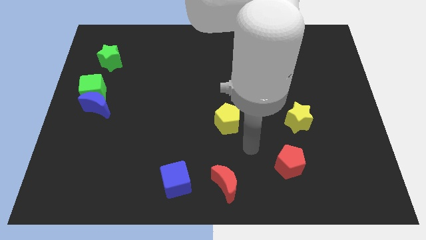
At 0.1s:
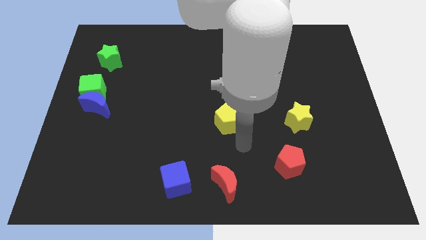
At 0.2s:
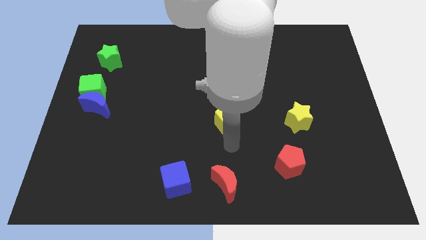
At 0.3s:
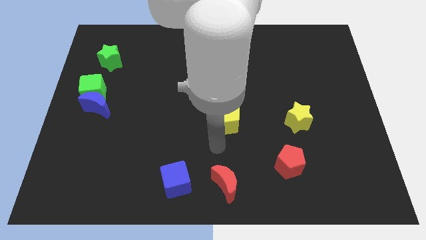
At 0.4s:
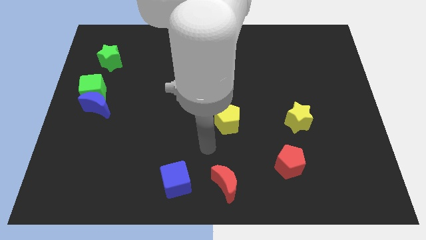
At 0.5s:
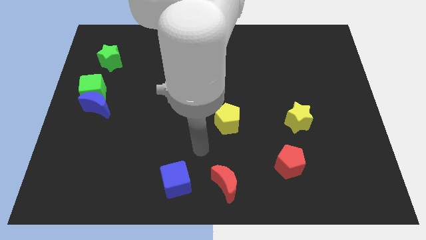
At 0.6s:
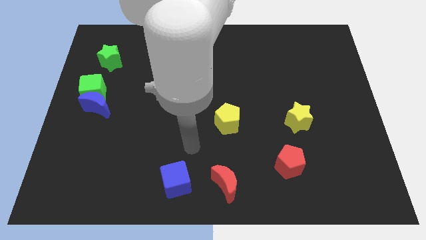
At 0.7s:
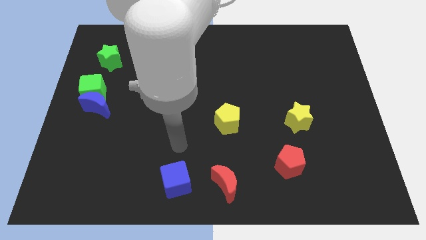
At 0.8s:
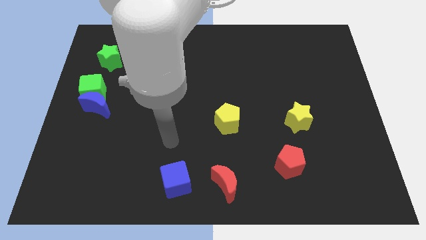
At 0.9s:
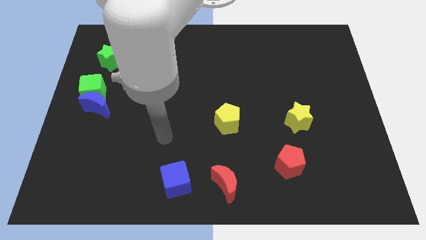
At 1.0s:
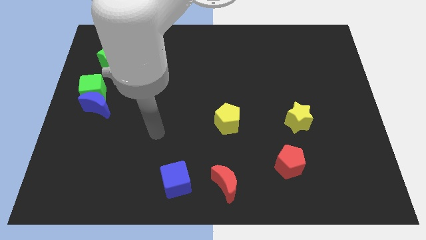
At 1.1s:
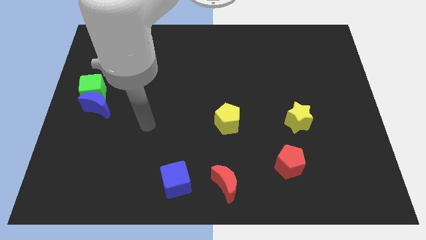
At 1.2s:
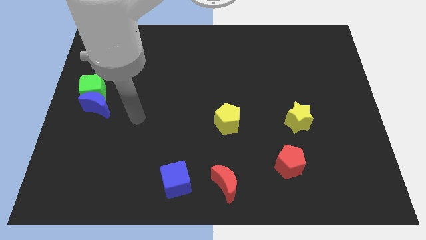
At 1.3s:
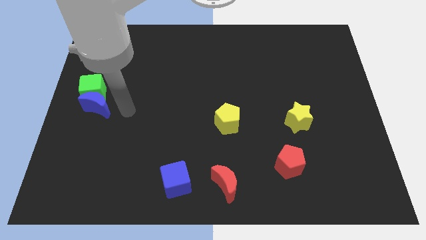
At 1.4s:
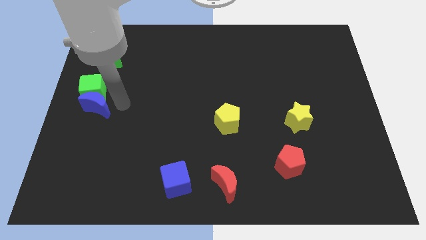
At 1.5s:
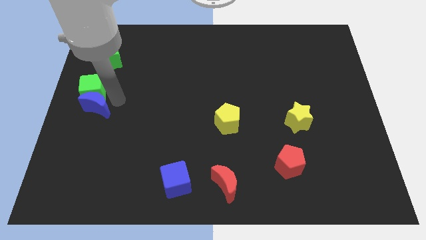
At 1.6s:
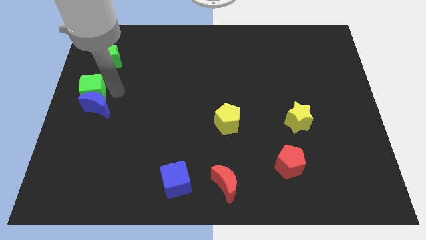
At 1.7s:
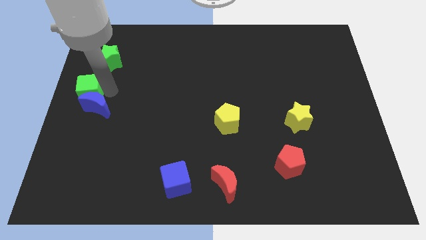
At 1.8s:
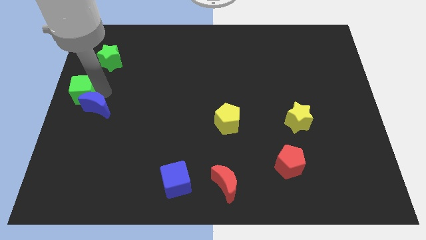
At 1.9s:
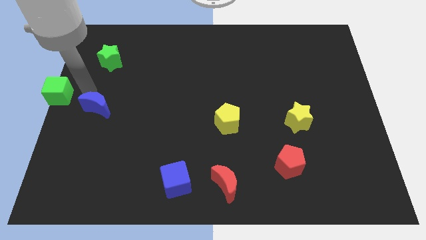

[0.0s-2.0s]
separate the blue moon from the green cube

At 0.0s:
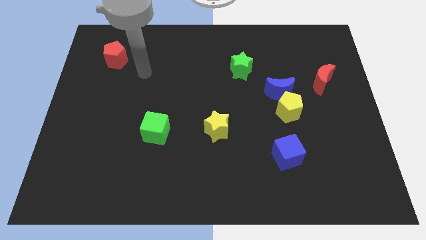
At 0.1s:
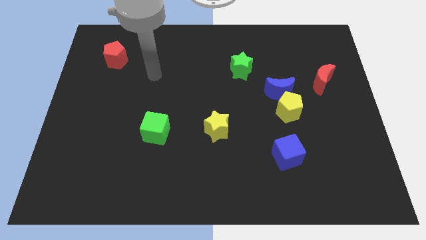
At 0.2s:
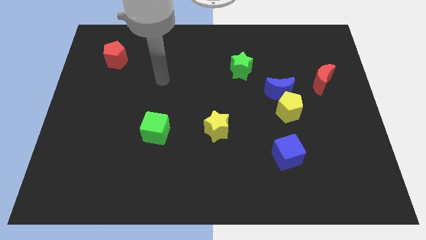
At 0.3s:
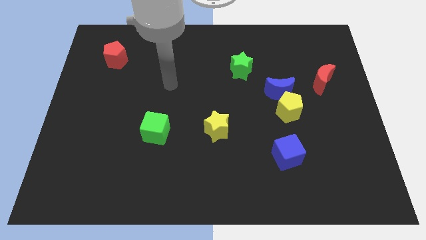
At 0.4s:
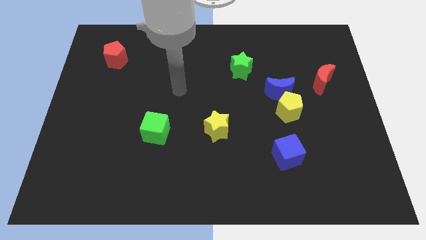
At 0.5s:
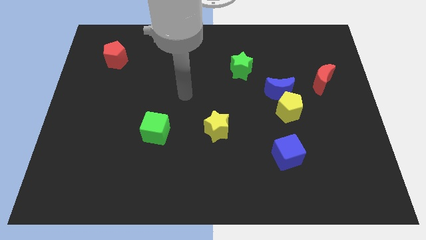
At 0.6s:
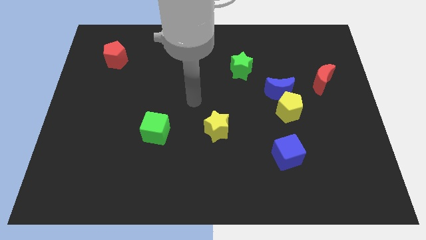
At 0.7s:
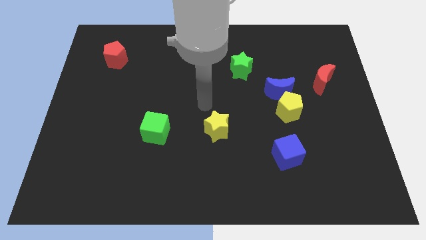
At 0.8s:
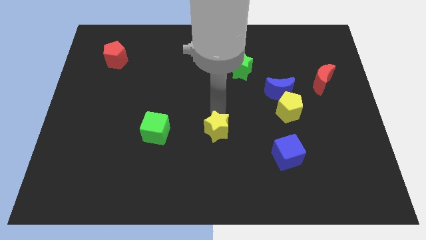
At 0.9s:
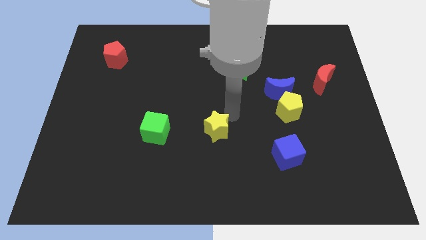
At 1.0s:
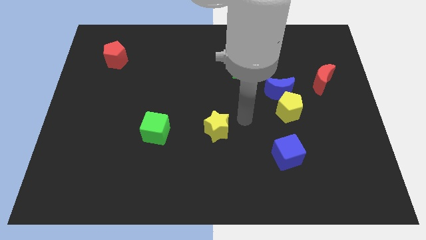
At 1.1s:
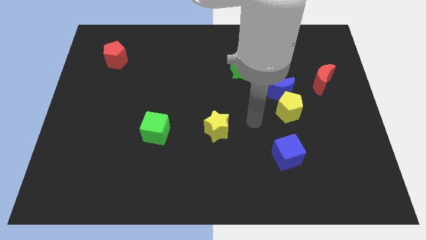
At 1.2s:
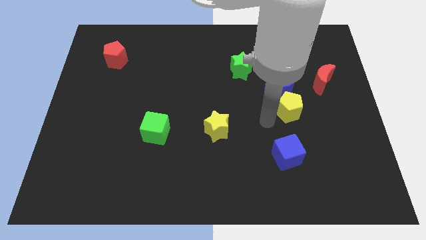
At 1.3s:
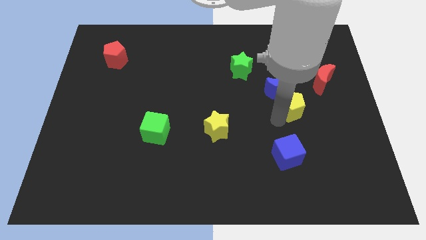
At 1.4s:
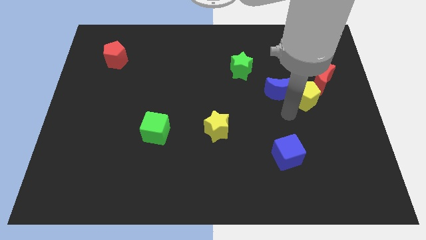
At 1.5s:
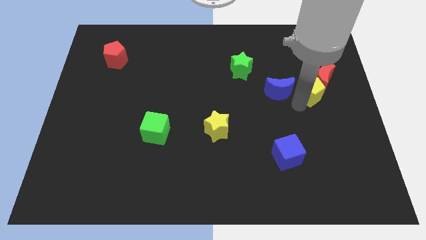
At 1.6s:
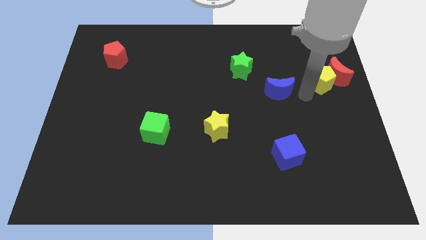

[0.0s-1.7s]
separate the blue moon from the yellow pentagon

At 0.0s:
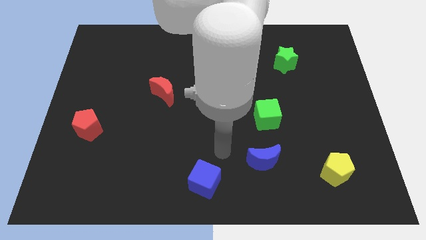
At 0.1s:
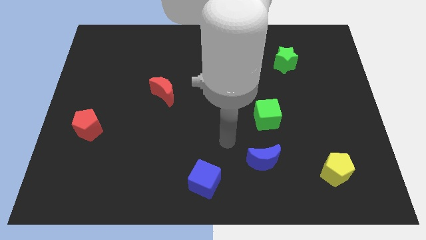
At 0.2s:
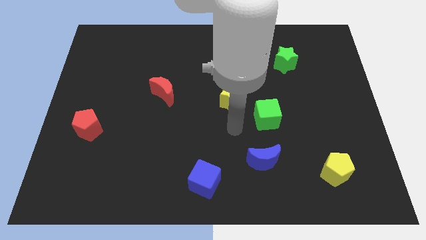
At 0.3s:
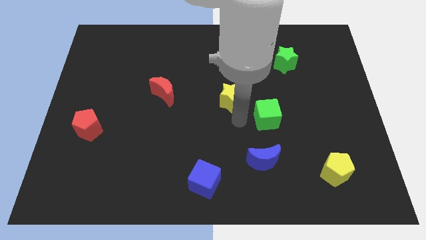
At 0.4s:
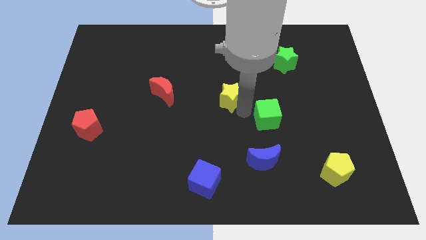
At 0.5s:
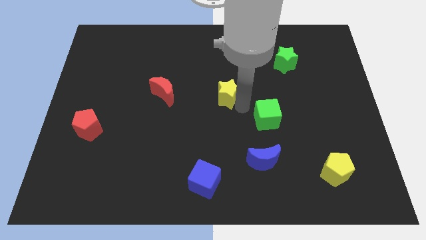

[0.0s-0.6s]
pull the green cube apart from the yellow star

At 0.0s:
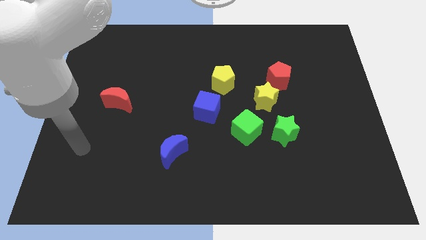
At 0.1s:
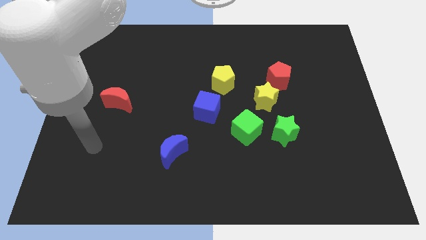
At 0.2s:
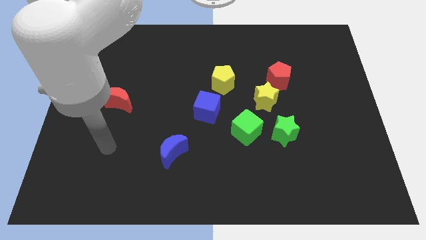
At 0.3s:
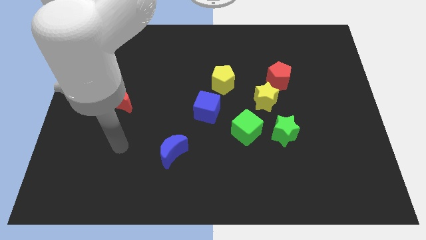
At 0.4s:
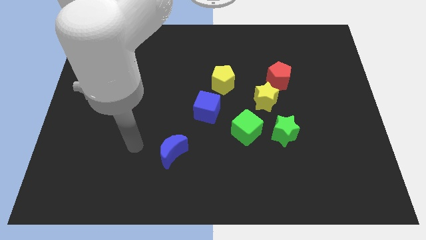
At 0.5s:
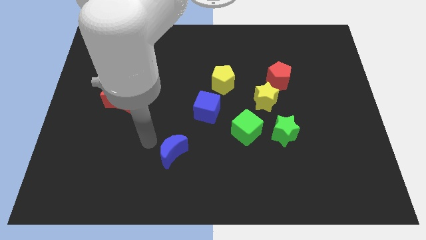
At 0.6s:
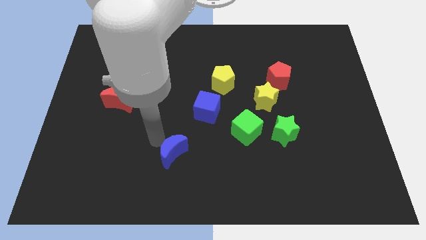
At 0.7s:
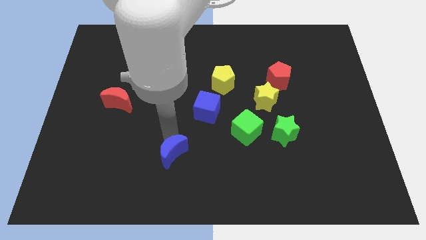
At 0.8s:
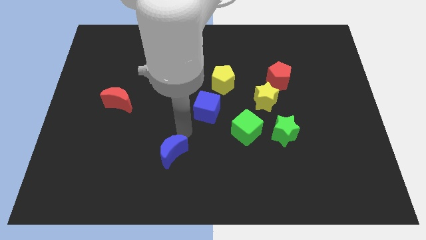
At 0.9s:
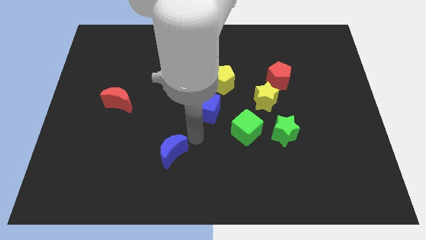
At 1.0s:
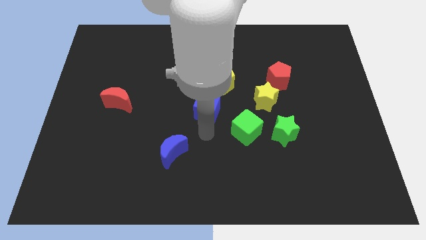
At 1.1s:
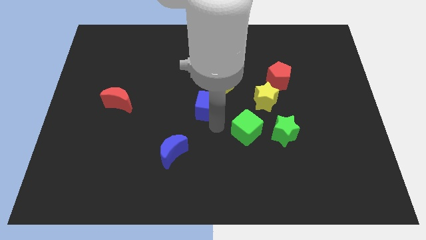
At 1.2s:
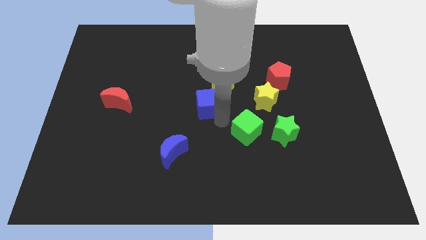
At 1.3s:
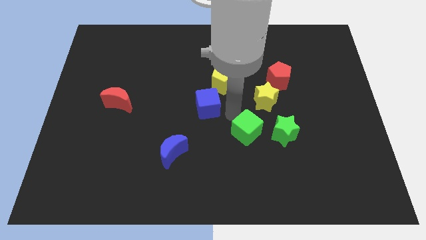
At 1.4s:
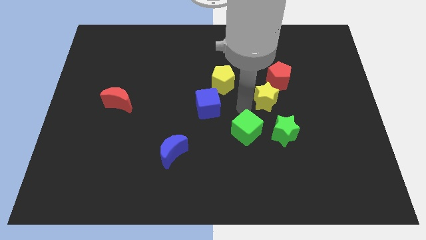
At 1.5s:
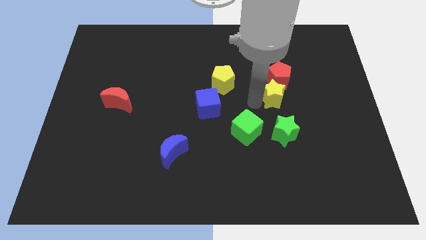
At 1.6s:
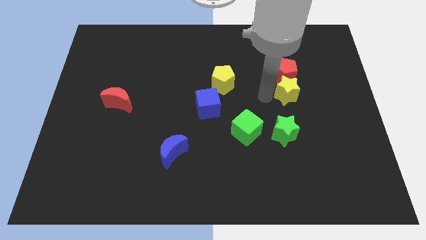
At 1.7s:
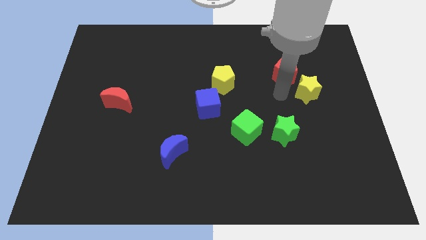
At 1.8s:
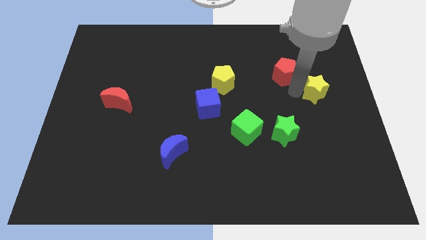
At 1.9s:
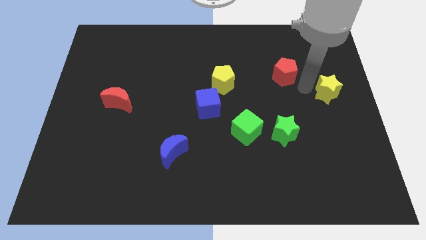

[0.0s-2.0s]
move the red pentagon away from the yellow star

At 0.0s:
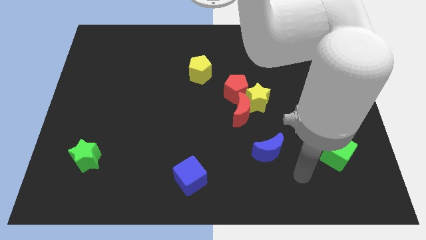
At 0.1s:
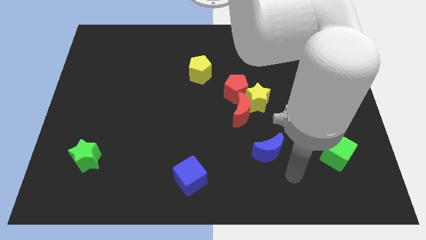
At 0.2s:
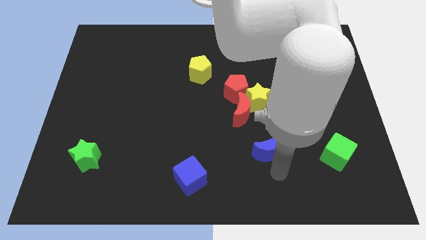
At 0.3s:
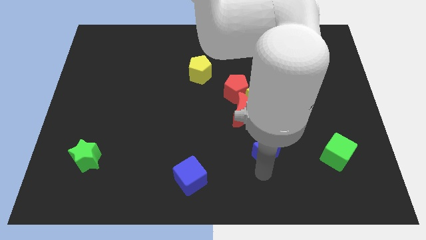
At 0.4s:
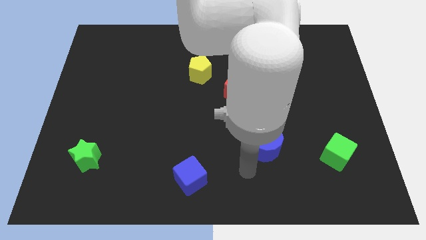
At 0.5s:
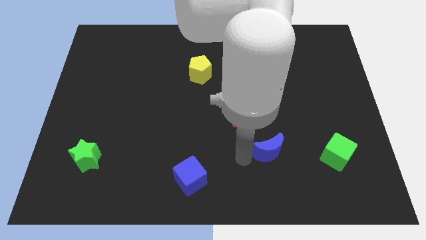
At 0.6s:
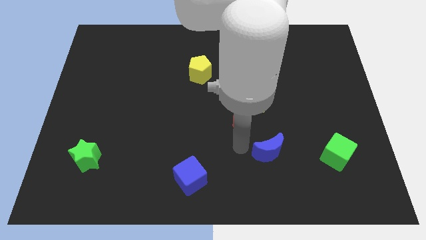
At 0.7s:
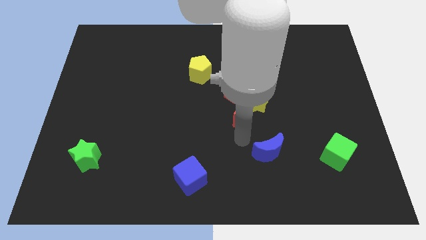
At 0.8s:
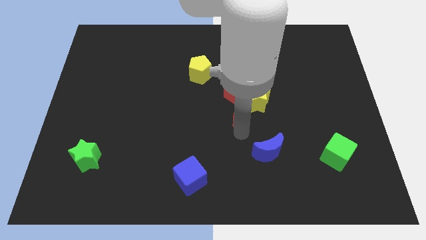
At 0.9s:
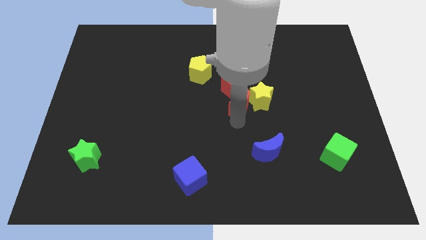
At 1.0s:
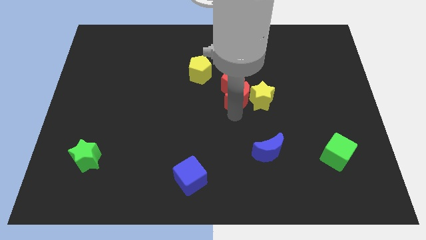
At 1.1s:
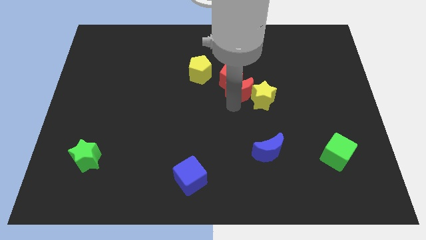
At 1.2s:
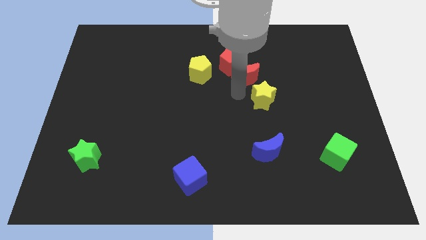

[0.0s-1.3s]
pull the yellow star apart from the red moon and red pentagon

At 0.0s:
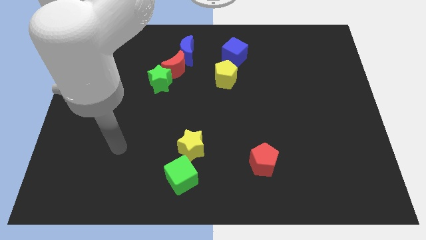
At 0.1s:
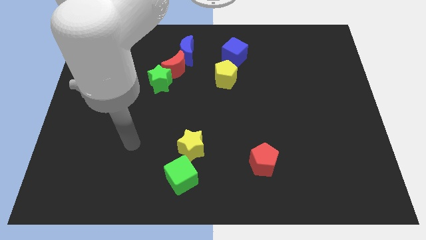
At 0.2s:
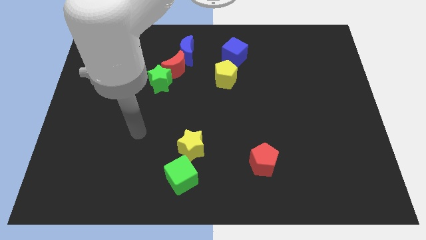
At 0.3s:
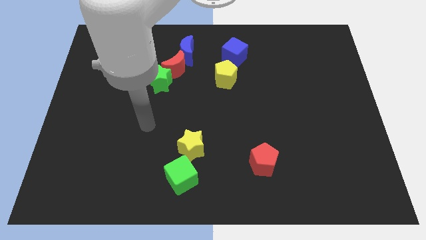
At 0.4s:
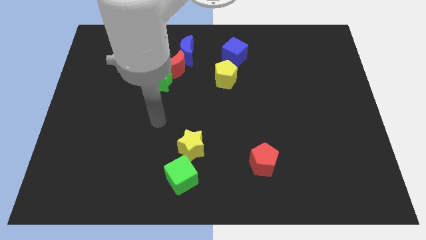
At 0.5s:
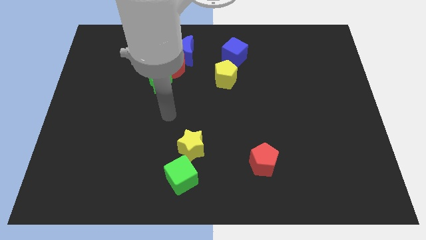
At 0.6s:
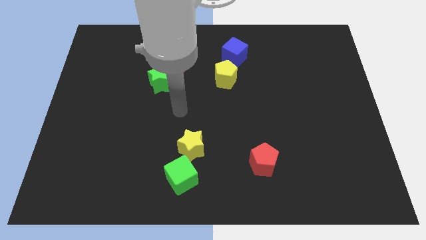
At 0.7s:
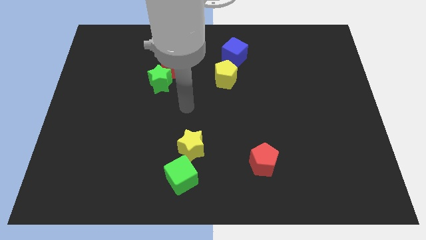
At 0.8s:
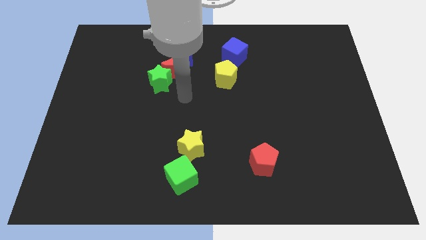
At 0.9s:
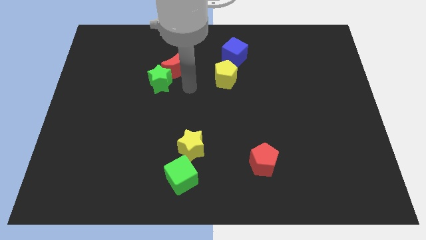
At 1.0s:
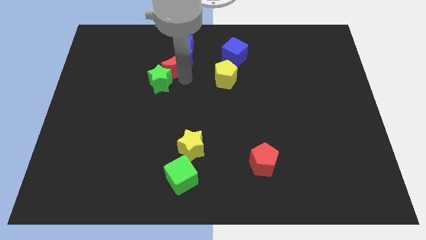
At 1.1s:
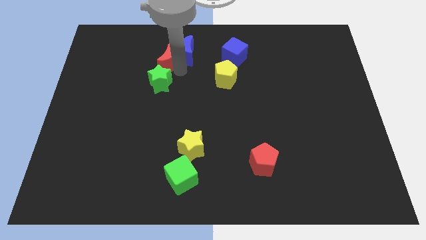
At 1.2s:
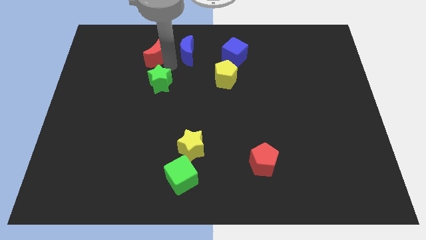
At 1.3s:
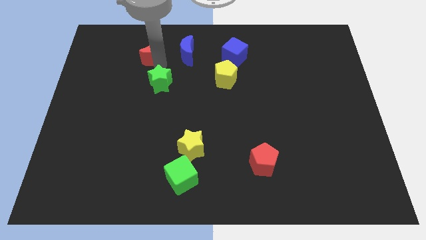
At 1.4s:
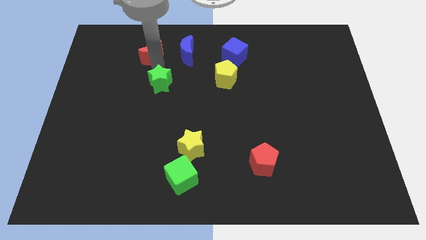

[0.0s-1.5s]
separate the green star from the red moon

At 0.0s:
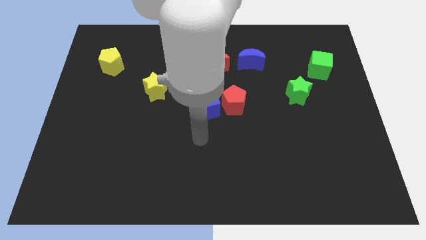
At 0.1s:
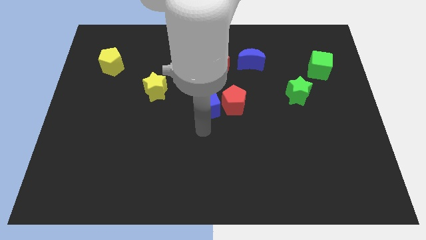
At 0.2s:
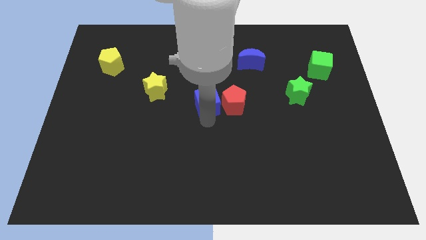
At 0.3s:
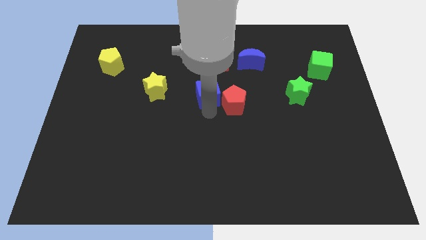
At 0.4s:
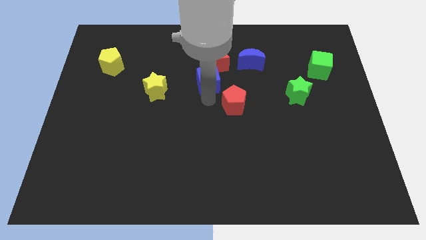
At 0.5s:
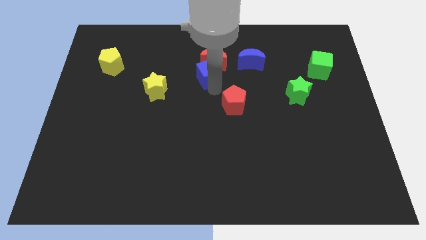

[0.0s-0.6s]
separate the red pentagon from the blue cube
